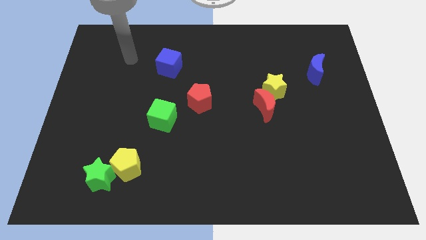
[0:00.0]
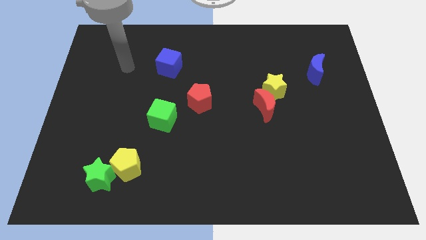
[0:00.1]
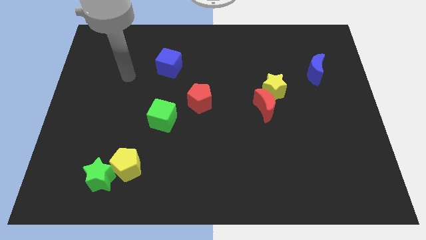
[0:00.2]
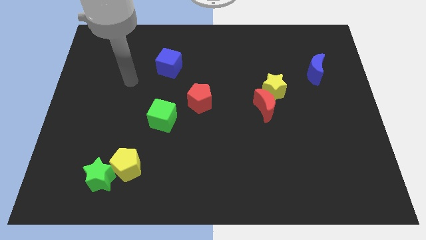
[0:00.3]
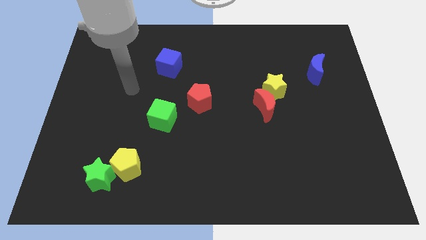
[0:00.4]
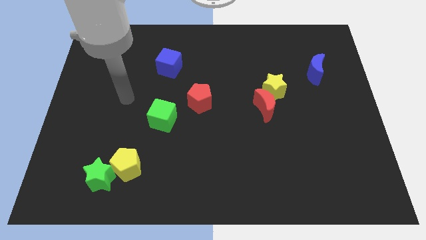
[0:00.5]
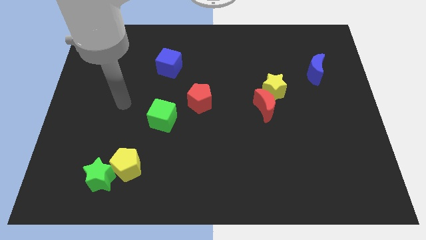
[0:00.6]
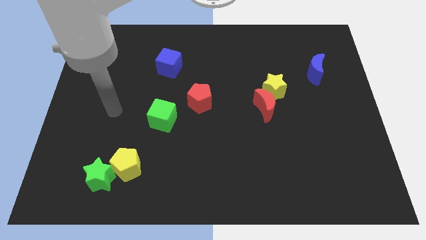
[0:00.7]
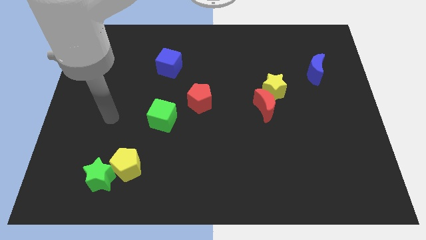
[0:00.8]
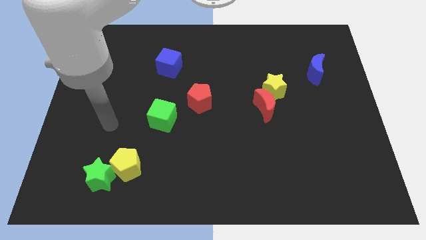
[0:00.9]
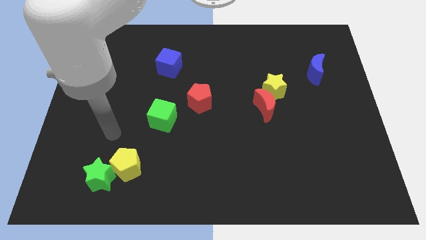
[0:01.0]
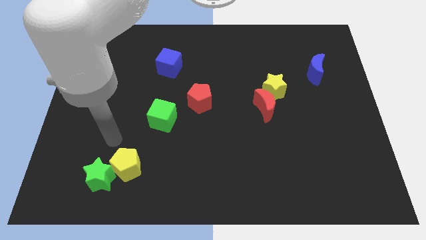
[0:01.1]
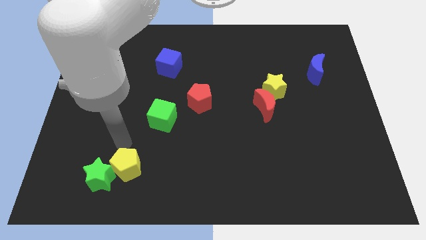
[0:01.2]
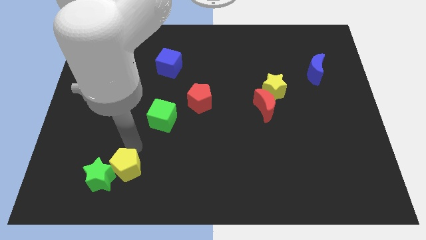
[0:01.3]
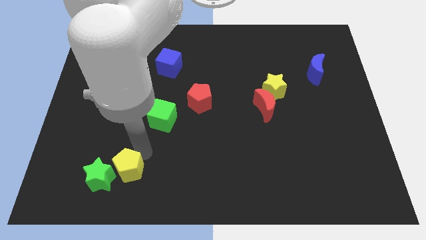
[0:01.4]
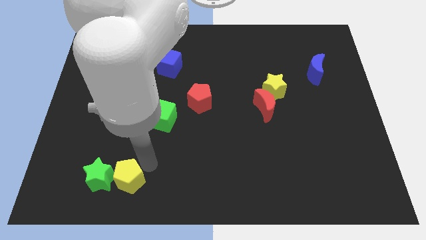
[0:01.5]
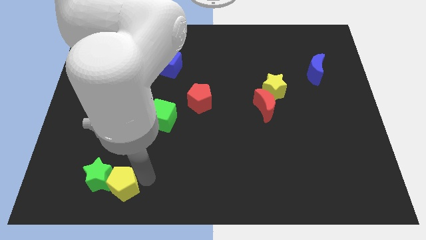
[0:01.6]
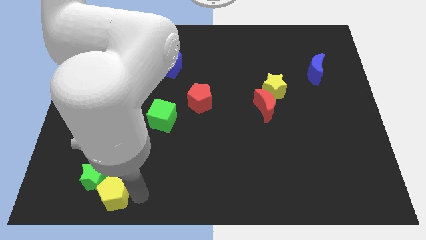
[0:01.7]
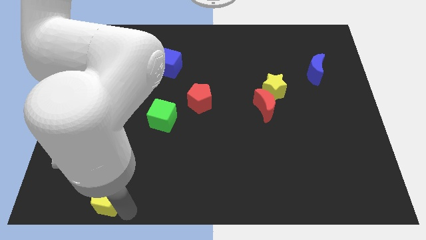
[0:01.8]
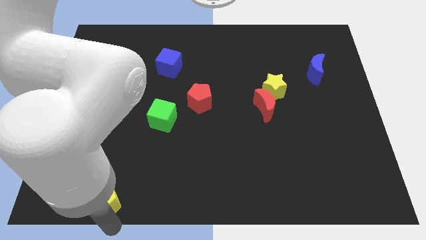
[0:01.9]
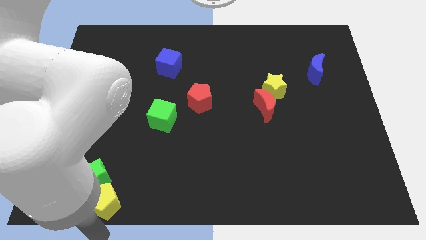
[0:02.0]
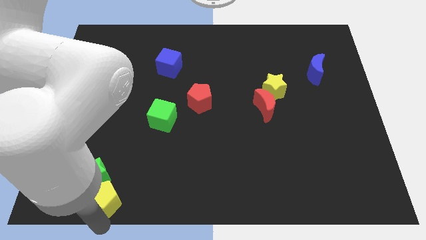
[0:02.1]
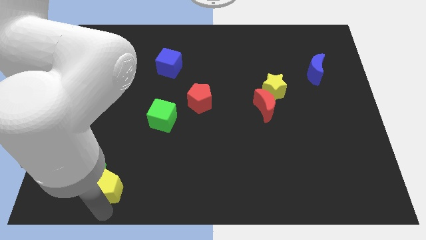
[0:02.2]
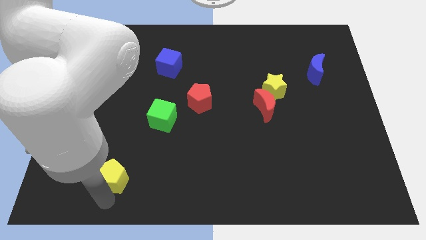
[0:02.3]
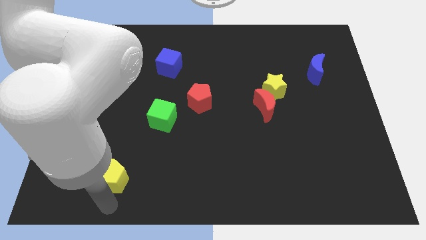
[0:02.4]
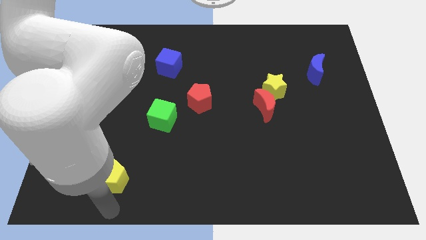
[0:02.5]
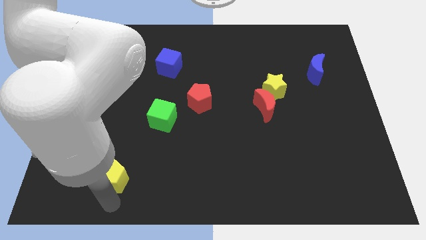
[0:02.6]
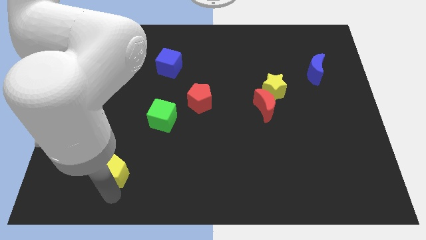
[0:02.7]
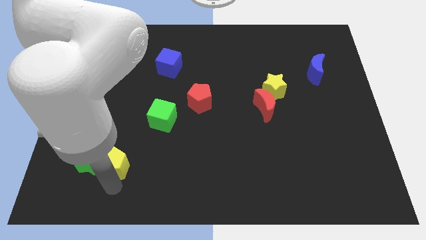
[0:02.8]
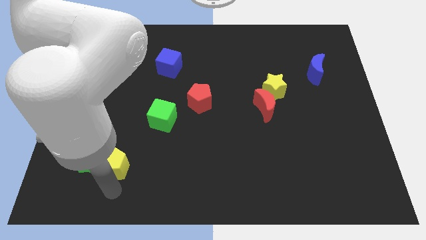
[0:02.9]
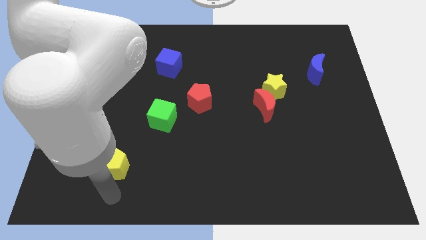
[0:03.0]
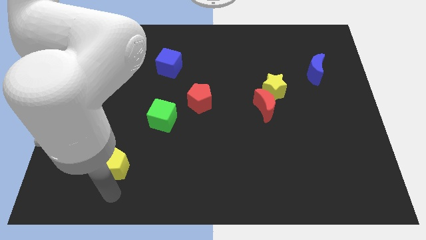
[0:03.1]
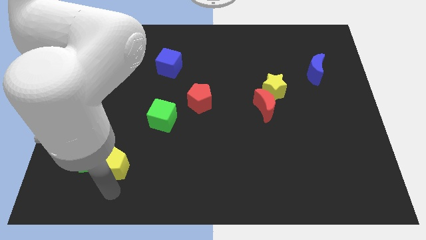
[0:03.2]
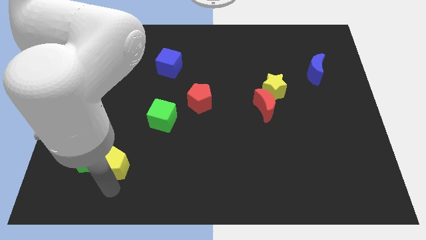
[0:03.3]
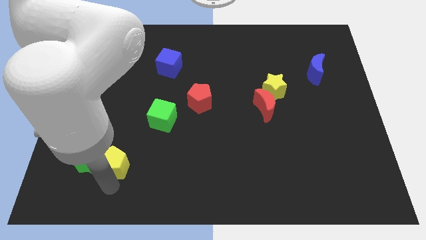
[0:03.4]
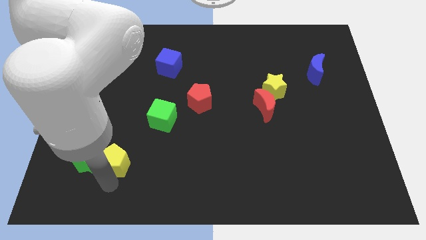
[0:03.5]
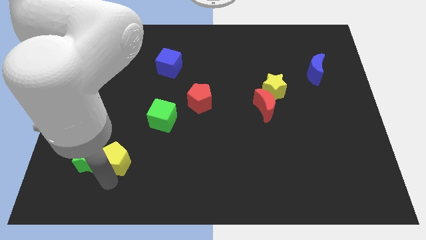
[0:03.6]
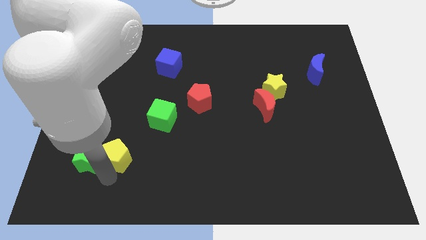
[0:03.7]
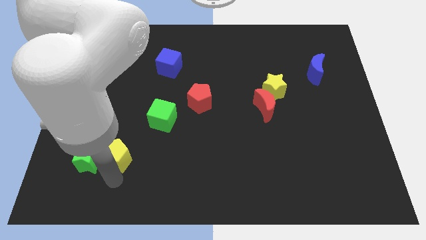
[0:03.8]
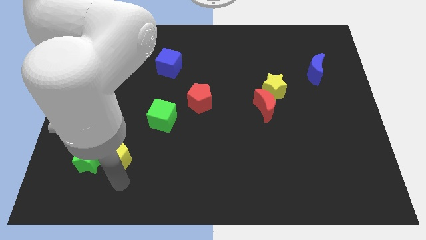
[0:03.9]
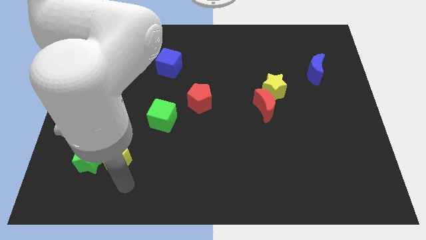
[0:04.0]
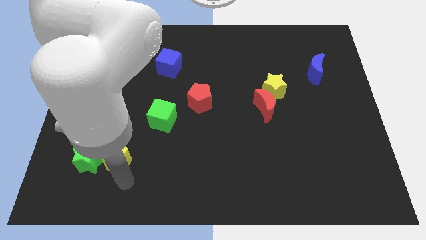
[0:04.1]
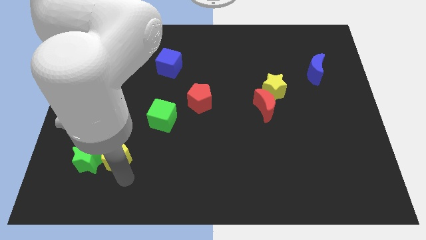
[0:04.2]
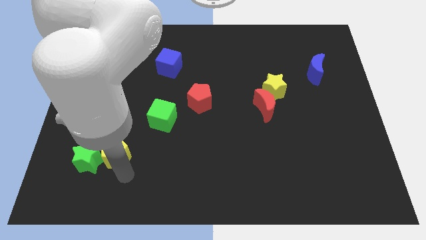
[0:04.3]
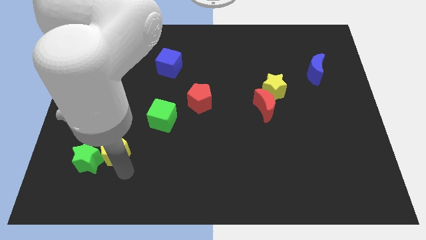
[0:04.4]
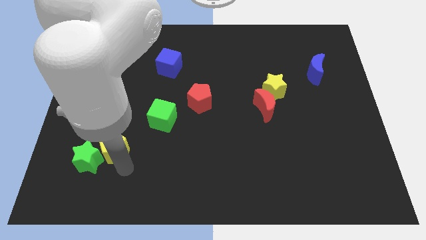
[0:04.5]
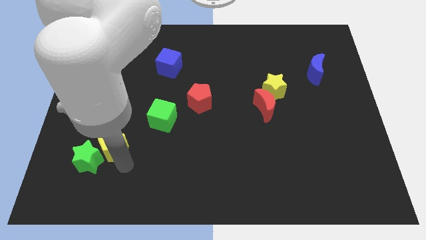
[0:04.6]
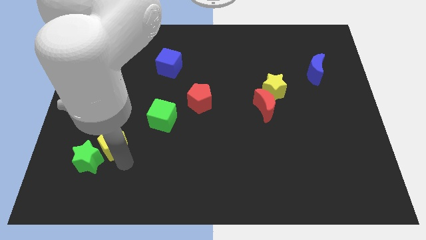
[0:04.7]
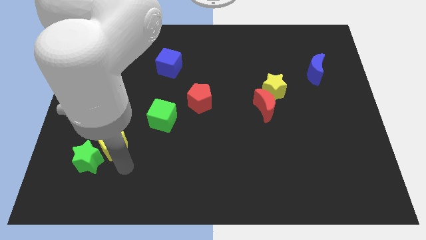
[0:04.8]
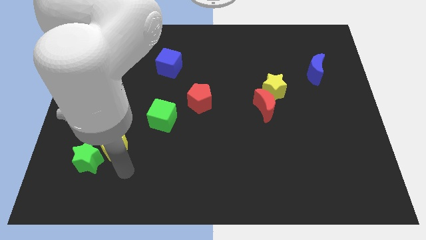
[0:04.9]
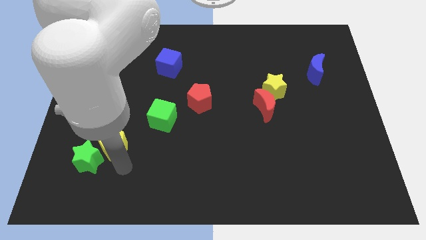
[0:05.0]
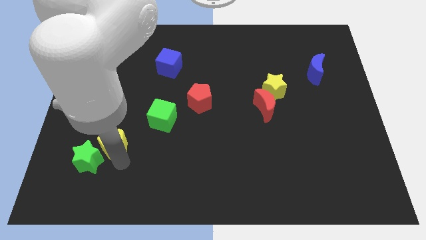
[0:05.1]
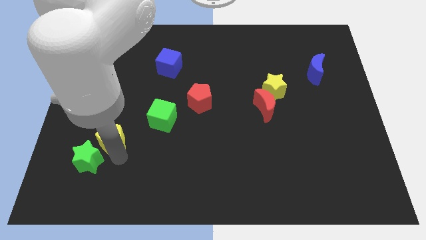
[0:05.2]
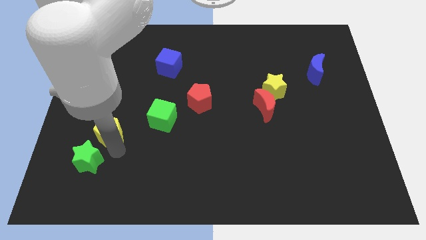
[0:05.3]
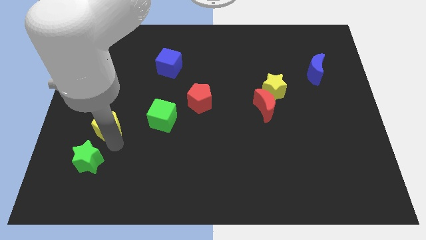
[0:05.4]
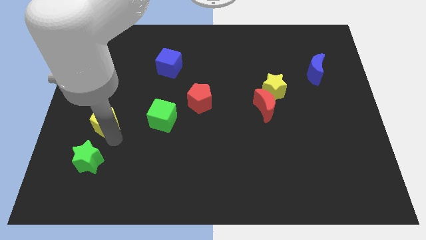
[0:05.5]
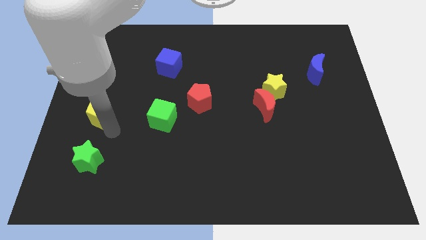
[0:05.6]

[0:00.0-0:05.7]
move the yellow pentagon to the left side

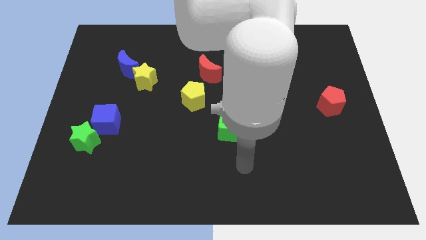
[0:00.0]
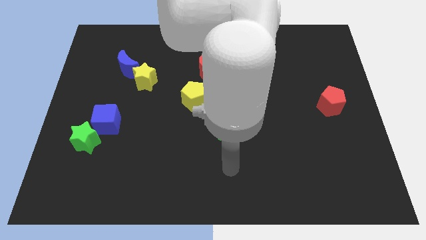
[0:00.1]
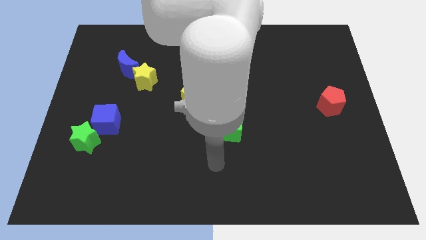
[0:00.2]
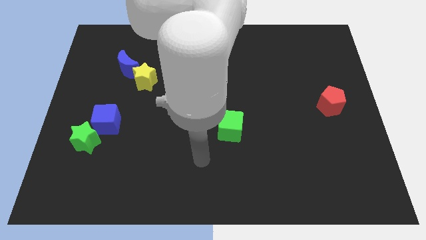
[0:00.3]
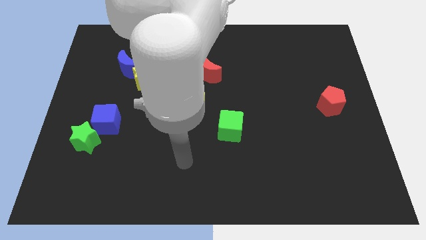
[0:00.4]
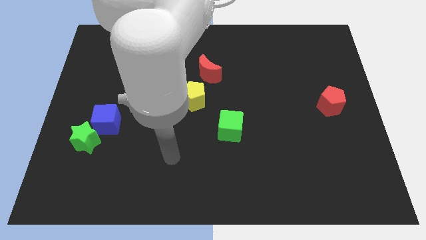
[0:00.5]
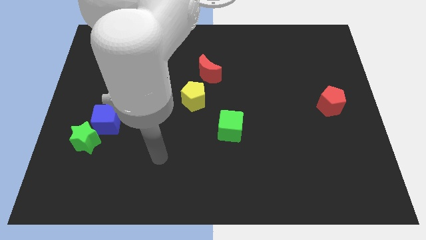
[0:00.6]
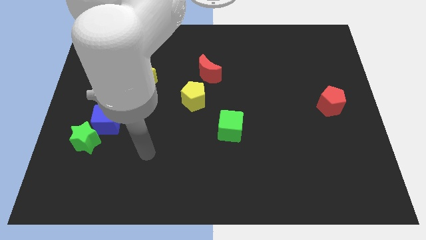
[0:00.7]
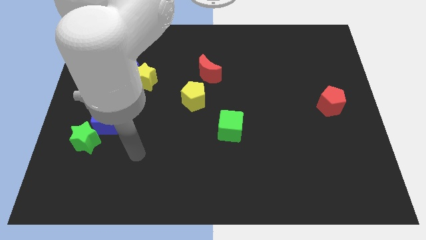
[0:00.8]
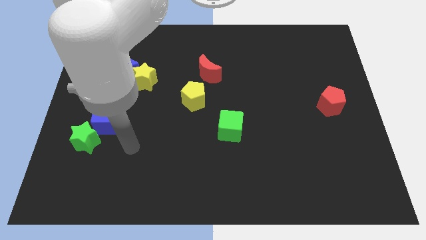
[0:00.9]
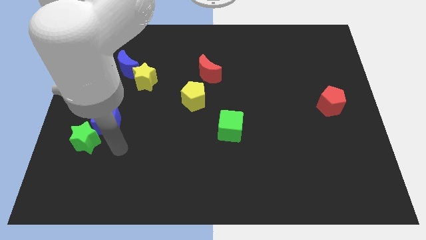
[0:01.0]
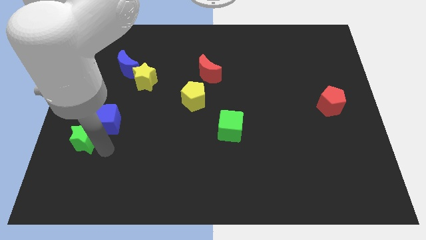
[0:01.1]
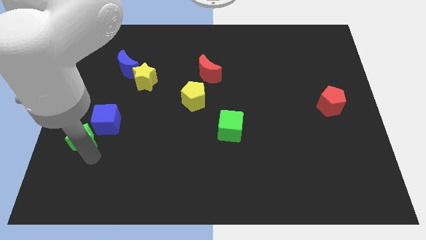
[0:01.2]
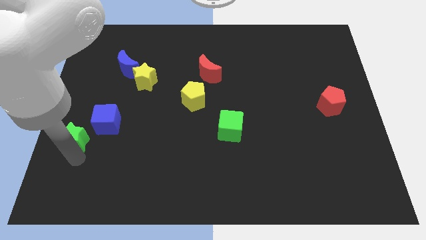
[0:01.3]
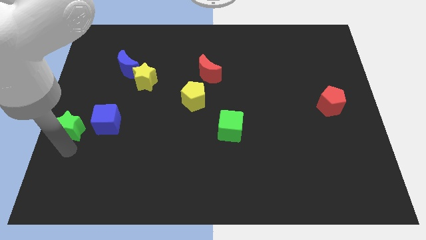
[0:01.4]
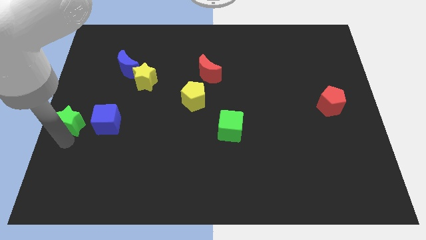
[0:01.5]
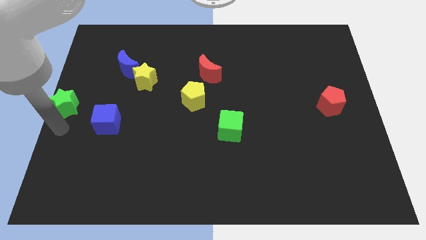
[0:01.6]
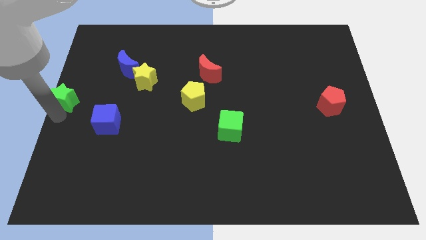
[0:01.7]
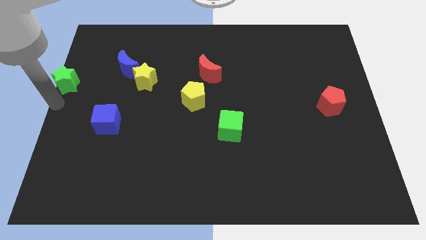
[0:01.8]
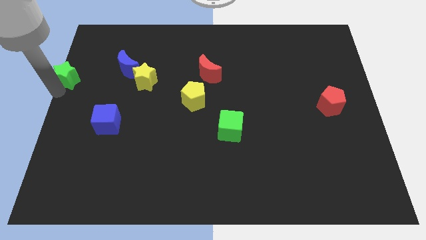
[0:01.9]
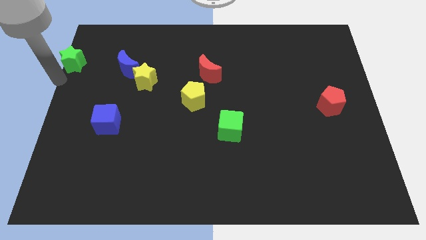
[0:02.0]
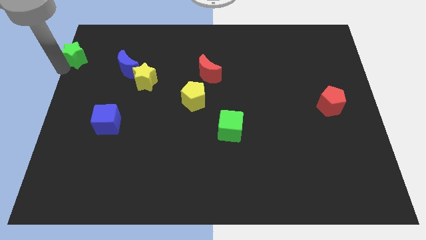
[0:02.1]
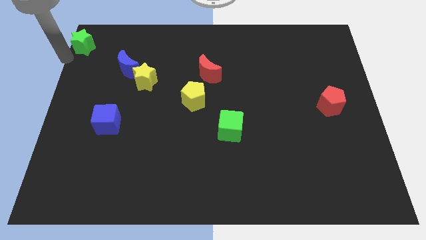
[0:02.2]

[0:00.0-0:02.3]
put the green star to the top left
